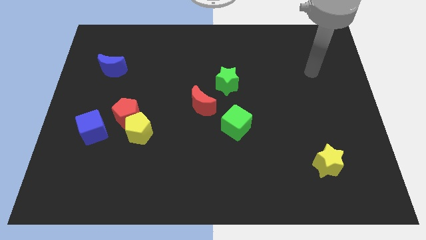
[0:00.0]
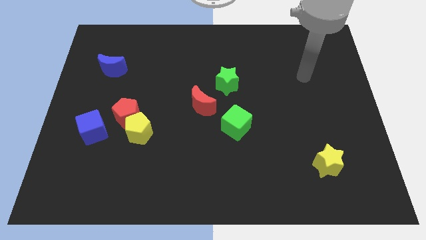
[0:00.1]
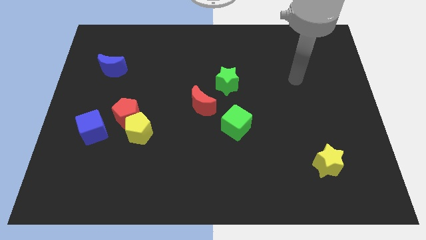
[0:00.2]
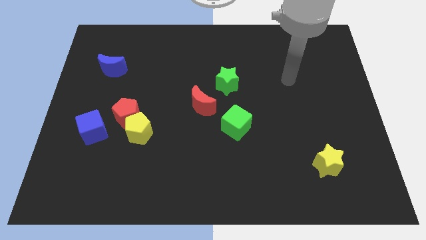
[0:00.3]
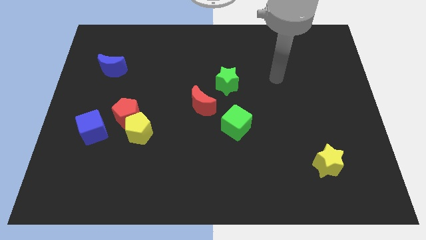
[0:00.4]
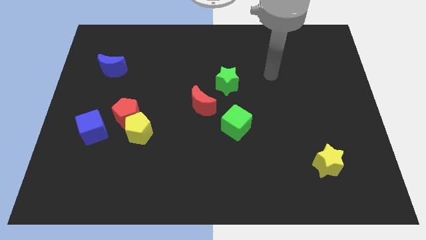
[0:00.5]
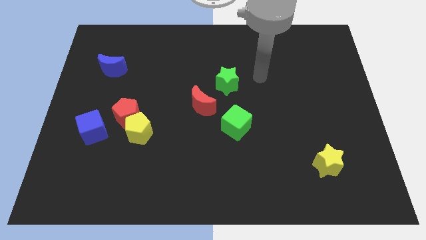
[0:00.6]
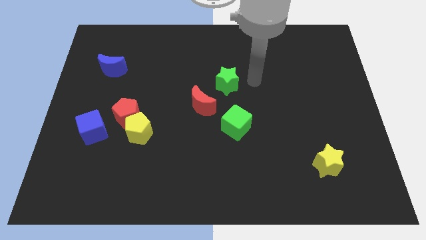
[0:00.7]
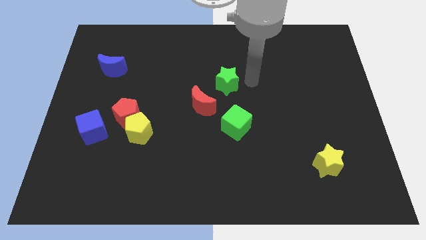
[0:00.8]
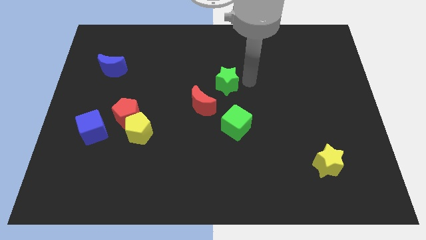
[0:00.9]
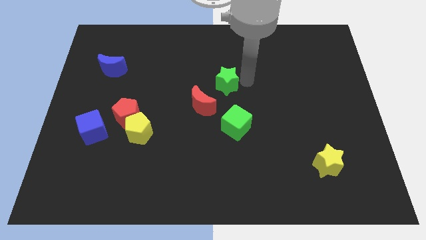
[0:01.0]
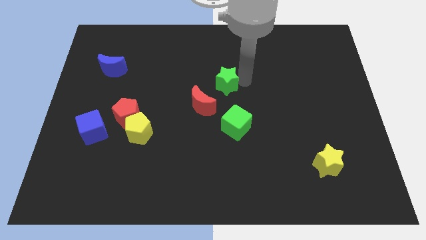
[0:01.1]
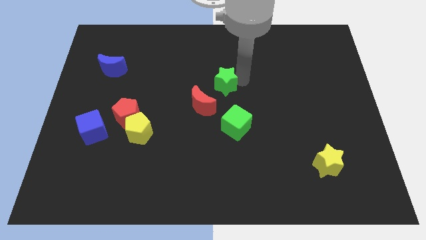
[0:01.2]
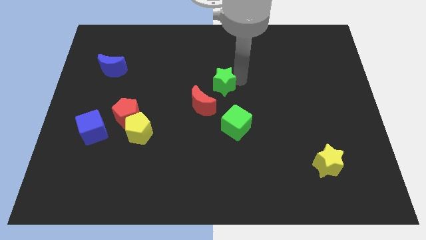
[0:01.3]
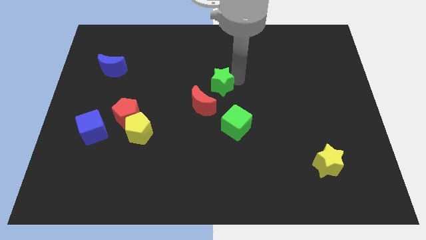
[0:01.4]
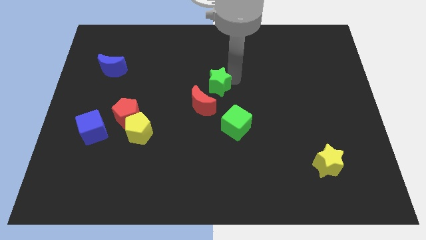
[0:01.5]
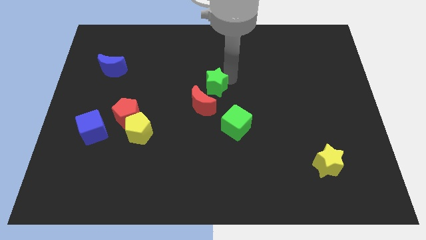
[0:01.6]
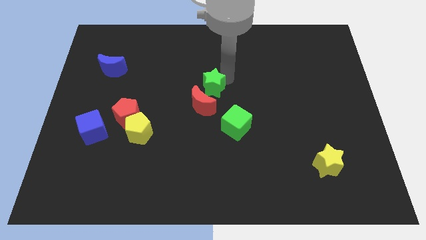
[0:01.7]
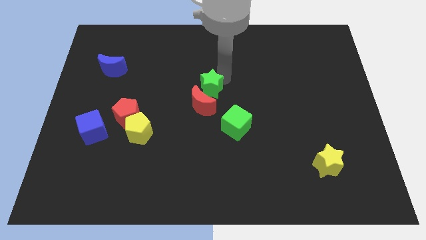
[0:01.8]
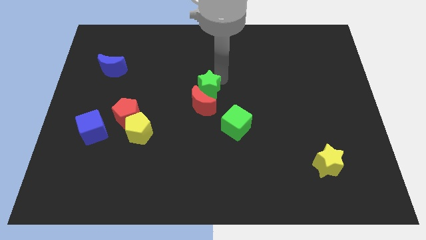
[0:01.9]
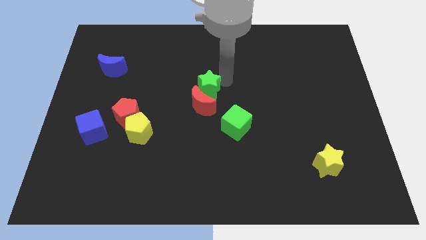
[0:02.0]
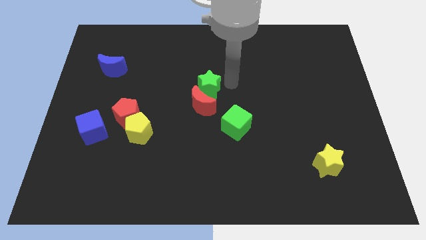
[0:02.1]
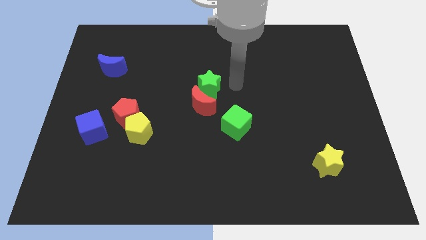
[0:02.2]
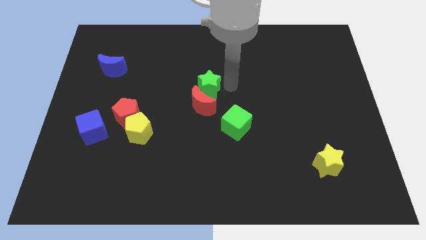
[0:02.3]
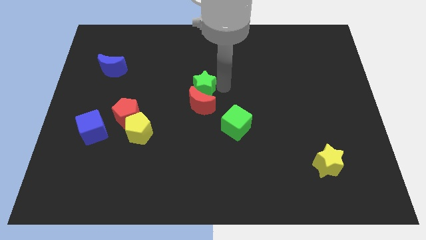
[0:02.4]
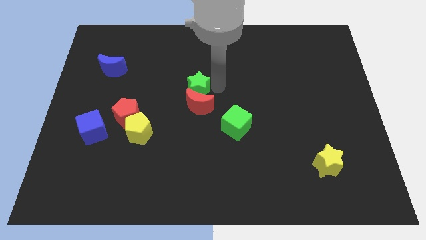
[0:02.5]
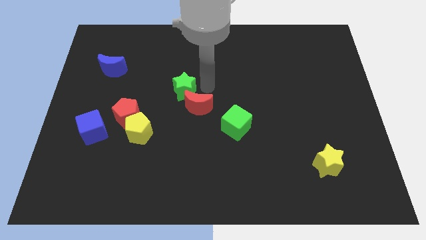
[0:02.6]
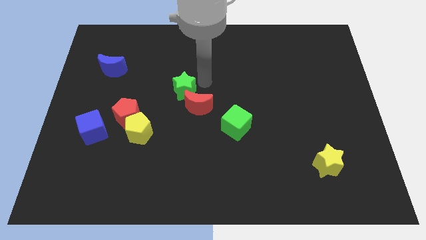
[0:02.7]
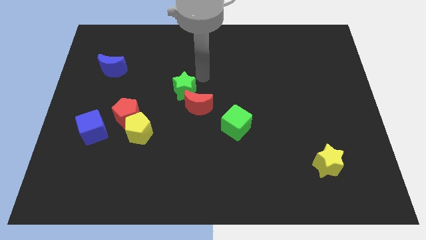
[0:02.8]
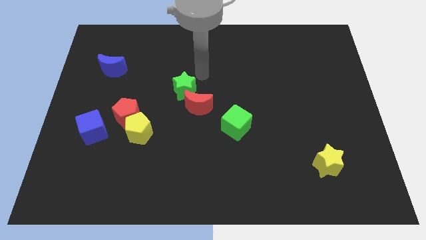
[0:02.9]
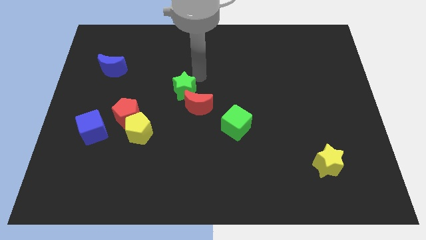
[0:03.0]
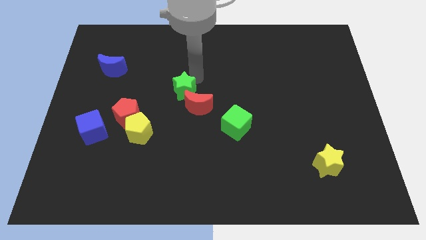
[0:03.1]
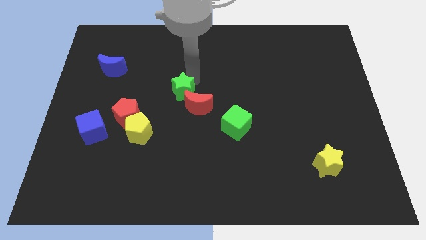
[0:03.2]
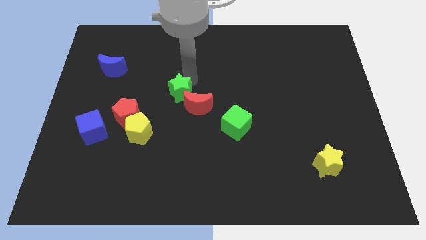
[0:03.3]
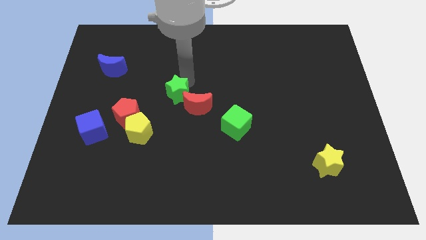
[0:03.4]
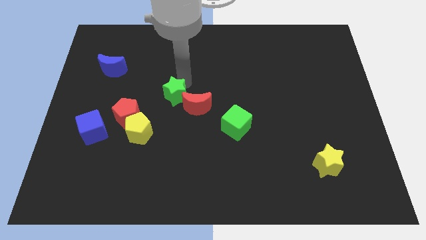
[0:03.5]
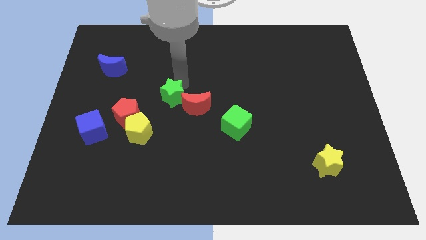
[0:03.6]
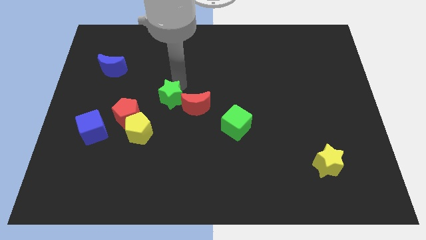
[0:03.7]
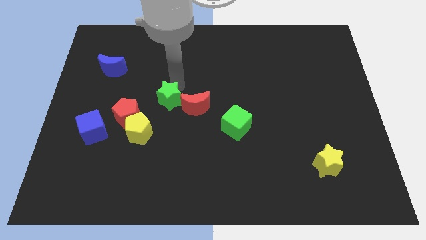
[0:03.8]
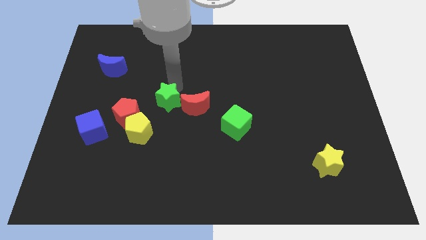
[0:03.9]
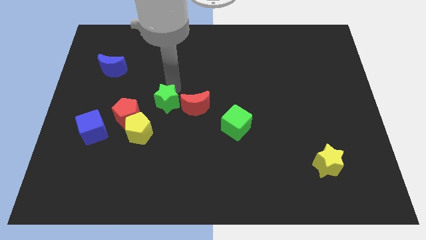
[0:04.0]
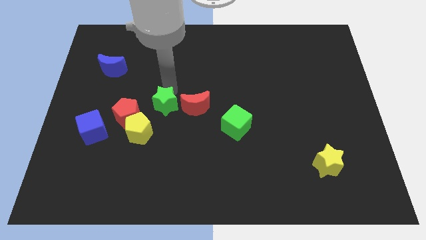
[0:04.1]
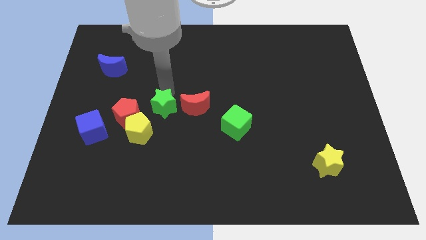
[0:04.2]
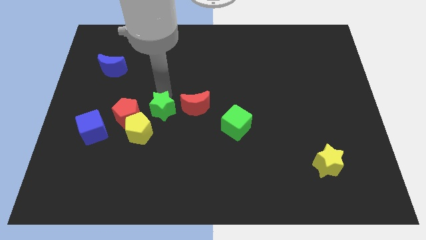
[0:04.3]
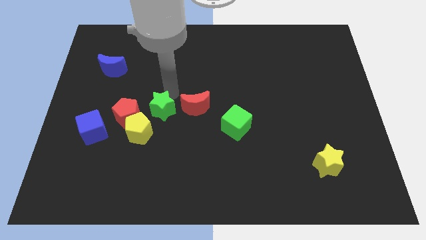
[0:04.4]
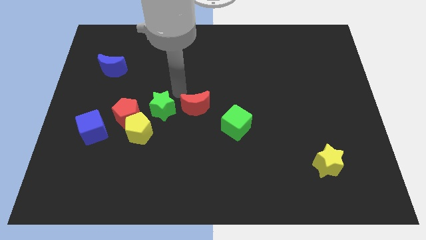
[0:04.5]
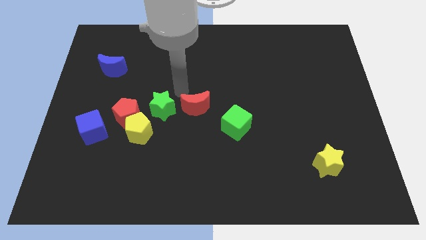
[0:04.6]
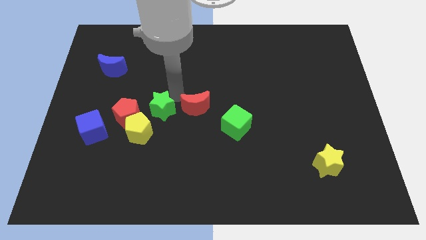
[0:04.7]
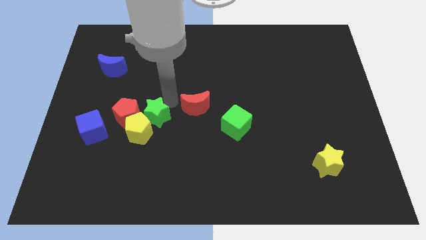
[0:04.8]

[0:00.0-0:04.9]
push the green star towards the yellow pentagon

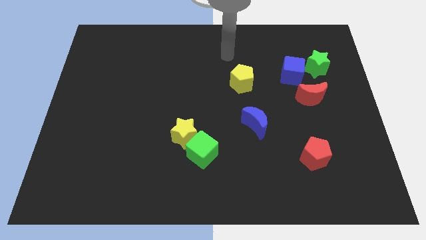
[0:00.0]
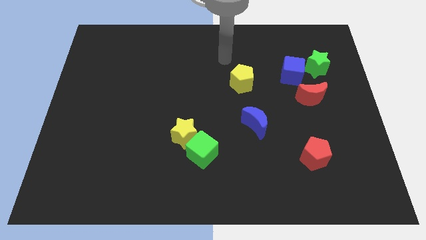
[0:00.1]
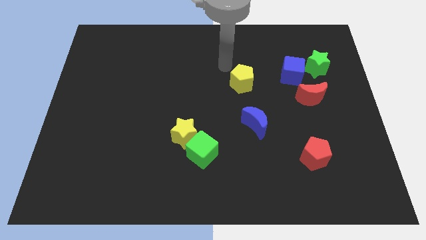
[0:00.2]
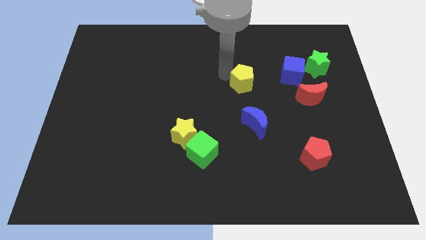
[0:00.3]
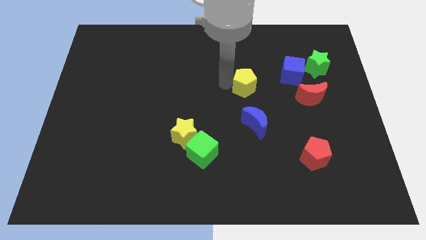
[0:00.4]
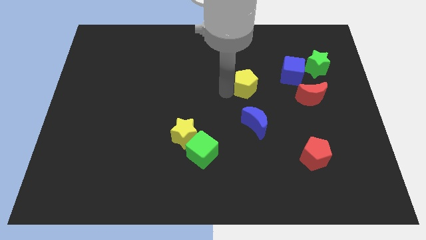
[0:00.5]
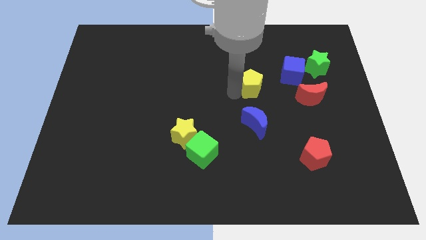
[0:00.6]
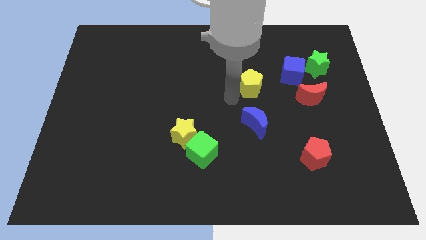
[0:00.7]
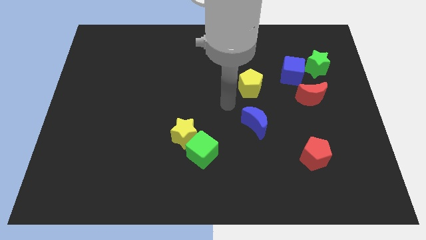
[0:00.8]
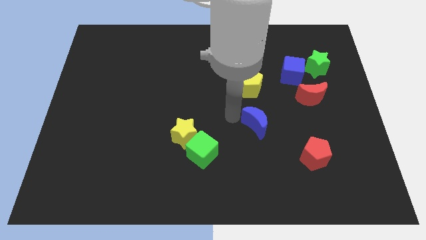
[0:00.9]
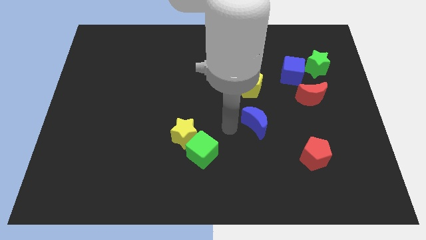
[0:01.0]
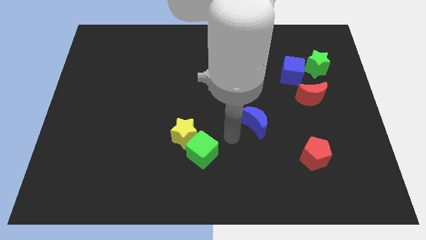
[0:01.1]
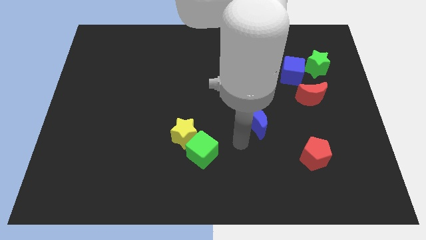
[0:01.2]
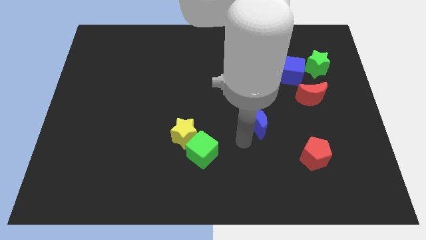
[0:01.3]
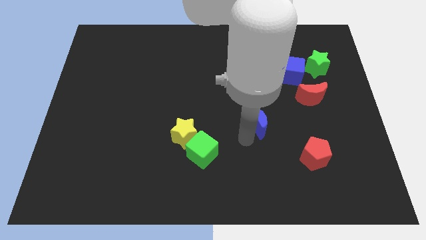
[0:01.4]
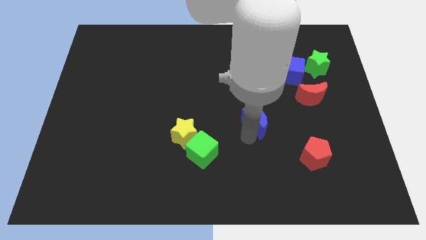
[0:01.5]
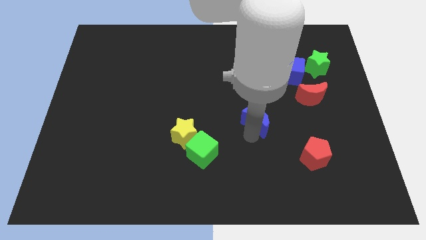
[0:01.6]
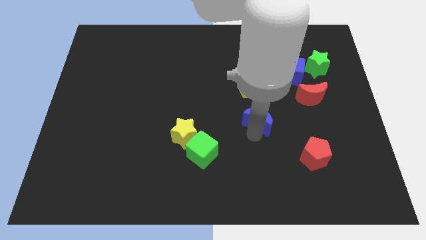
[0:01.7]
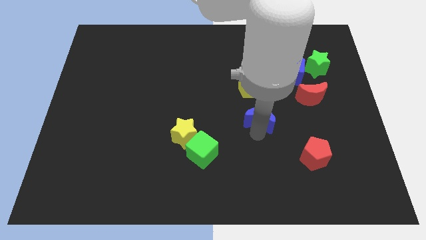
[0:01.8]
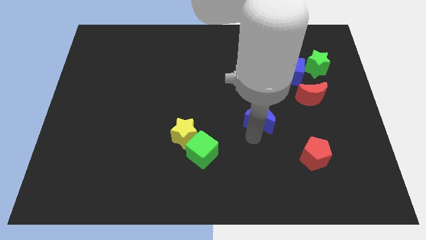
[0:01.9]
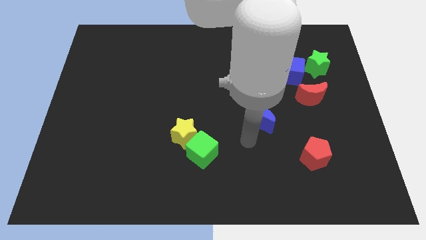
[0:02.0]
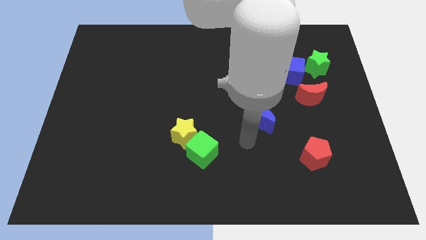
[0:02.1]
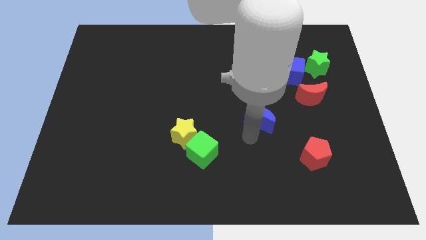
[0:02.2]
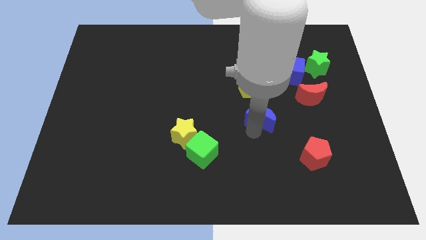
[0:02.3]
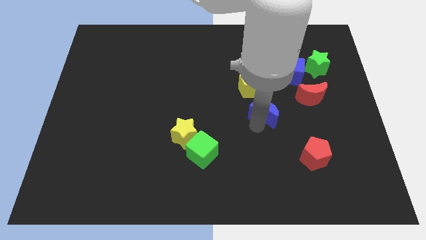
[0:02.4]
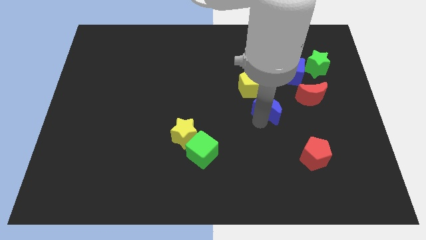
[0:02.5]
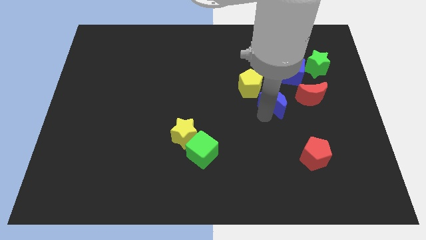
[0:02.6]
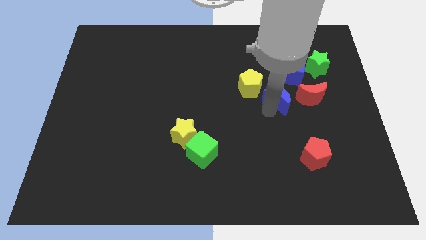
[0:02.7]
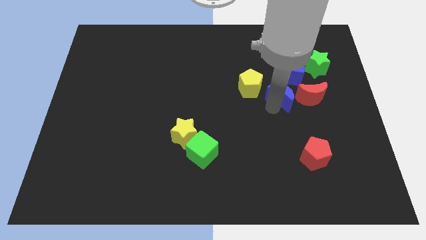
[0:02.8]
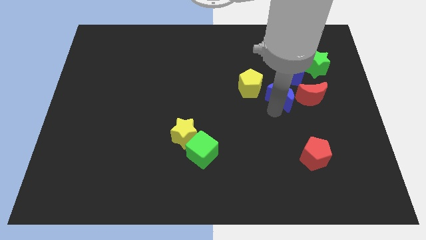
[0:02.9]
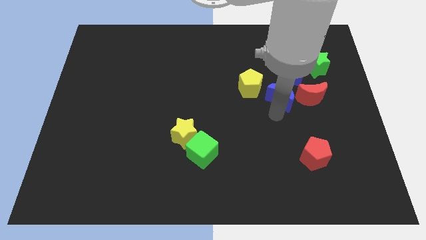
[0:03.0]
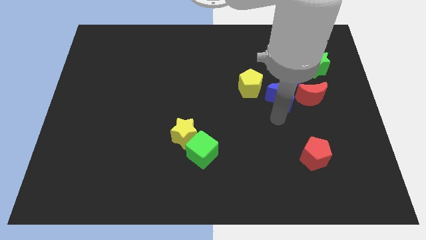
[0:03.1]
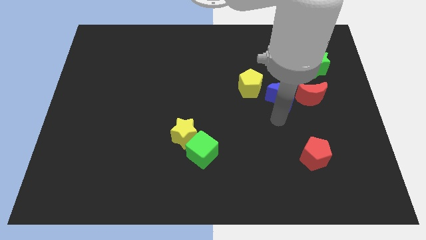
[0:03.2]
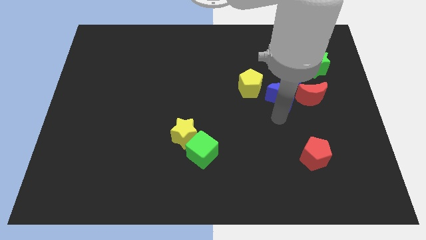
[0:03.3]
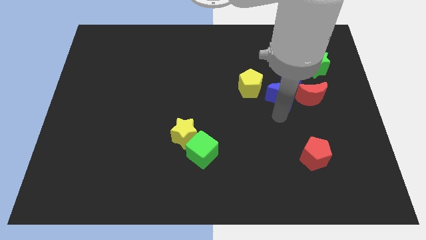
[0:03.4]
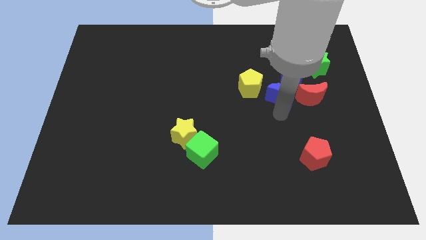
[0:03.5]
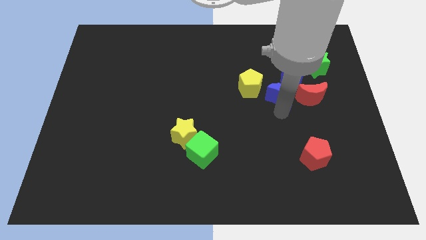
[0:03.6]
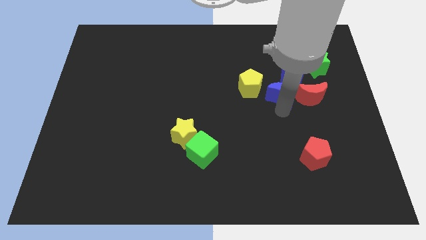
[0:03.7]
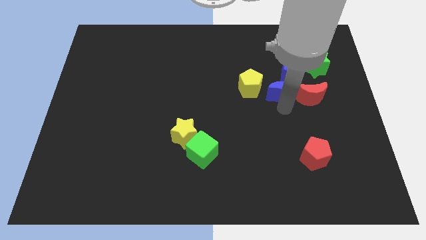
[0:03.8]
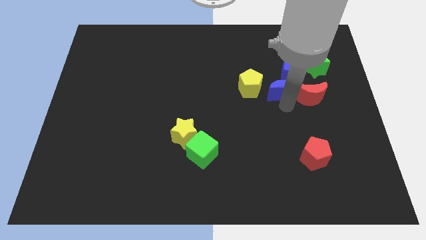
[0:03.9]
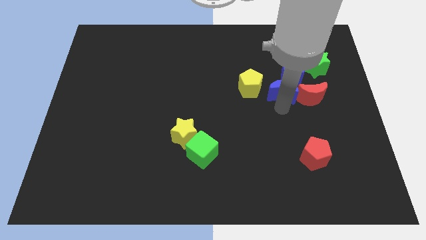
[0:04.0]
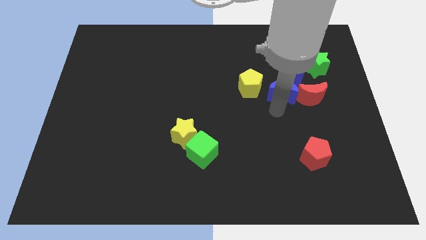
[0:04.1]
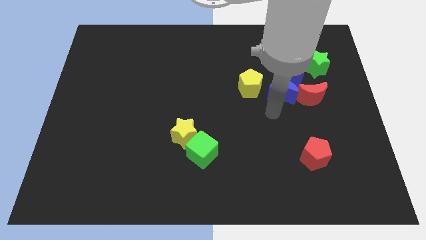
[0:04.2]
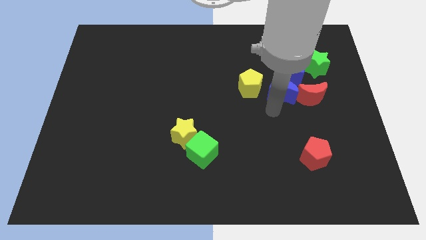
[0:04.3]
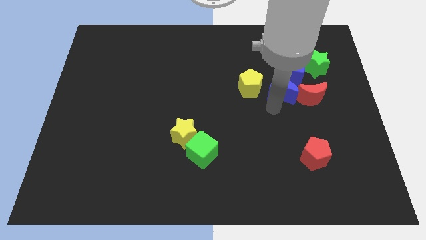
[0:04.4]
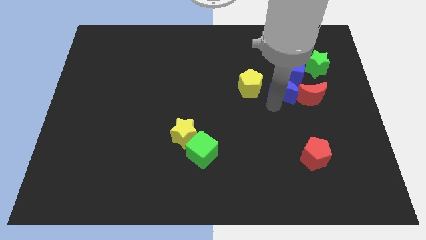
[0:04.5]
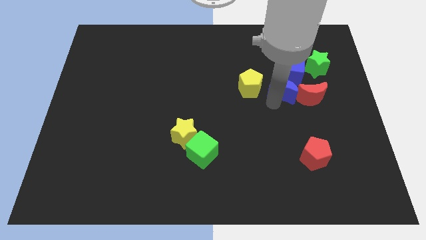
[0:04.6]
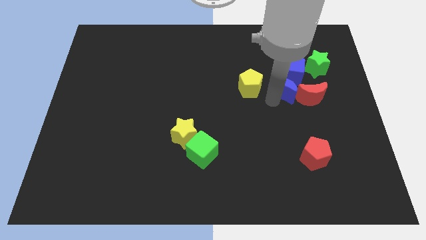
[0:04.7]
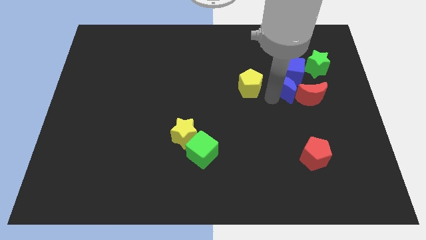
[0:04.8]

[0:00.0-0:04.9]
push the blue moon towards the blue cube
